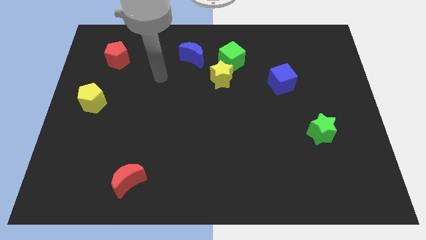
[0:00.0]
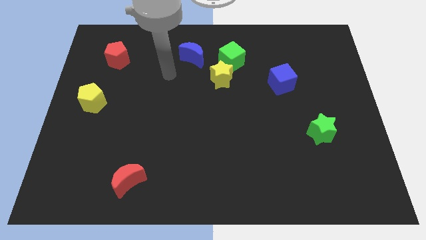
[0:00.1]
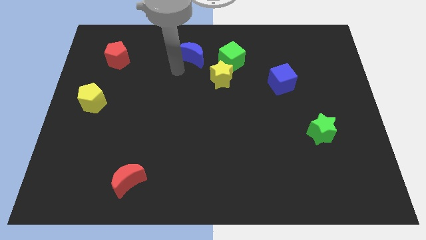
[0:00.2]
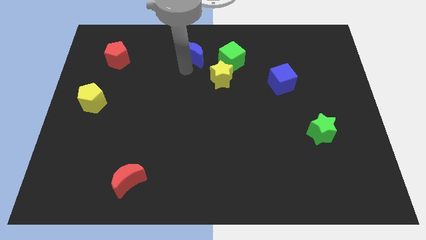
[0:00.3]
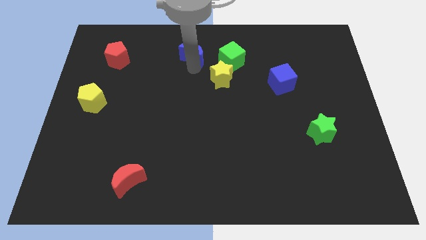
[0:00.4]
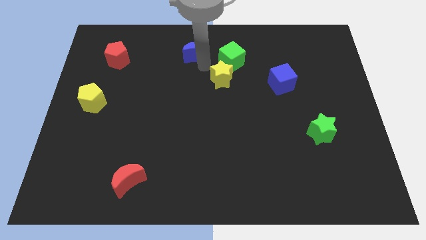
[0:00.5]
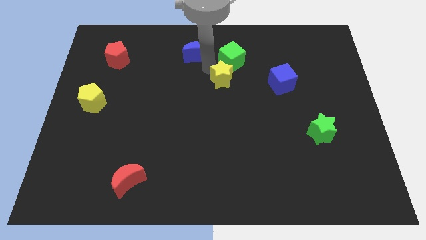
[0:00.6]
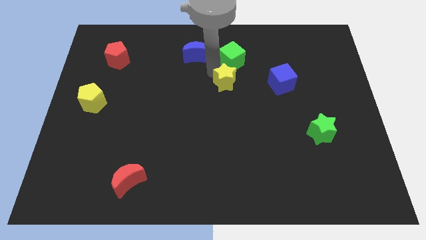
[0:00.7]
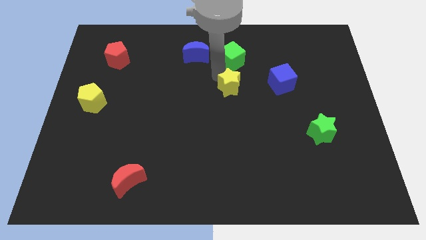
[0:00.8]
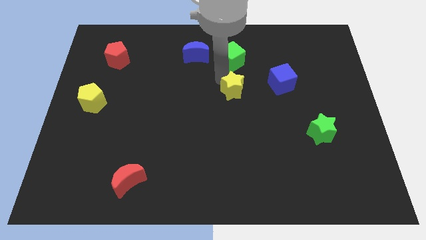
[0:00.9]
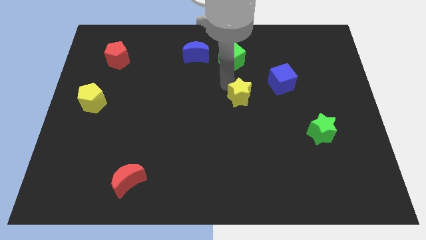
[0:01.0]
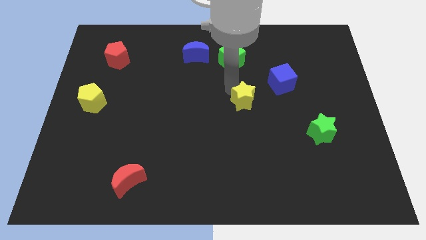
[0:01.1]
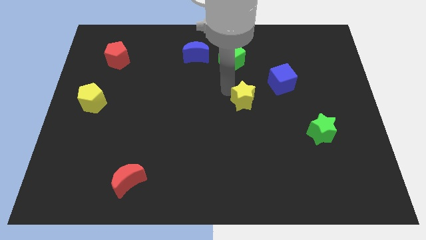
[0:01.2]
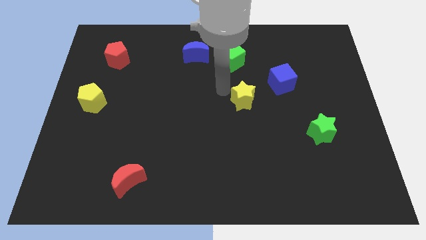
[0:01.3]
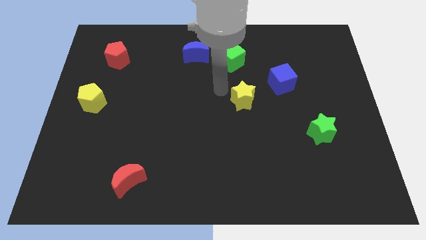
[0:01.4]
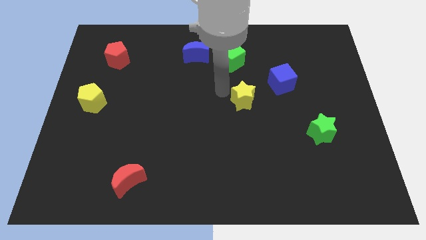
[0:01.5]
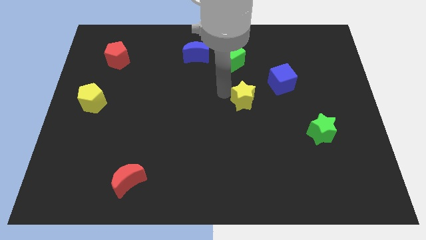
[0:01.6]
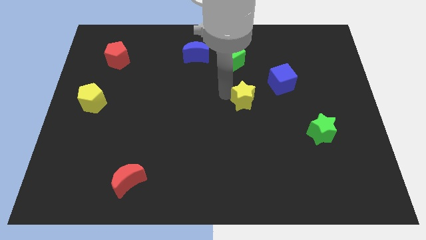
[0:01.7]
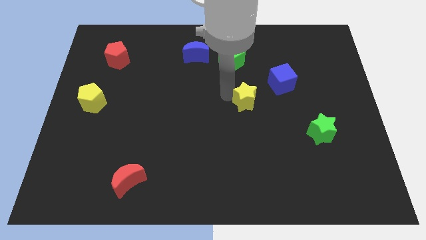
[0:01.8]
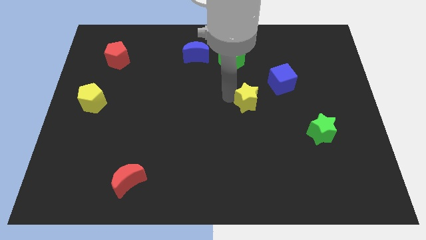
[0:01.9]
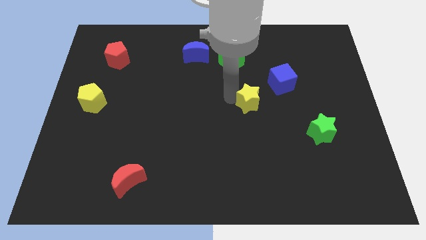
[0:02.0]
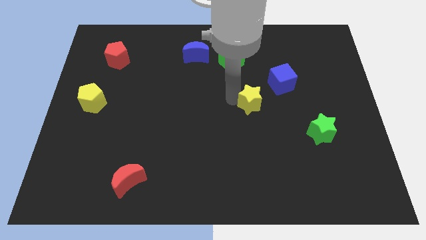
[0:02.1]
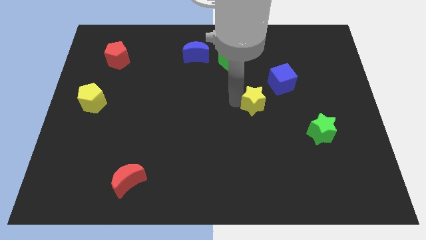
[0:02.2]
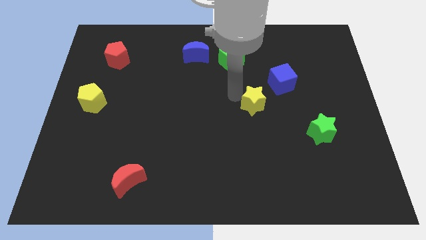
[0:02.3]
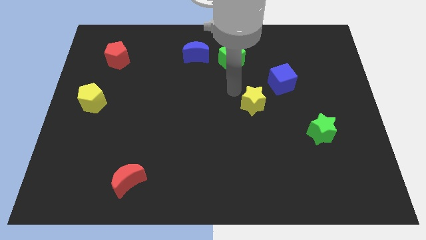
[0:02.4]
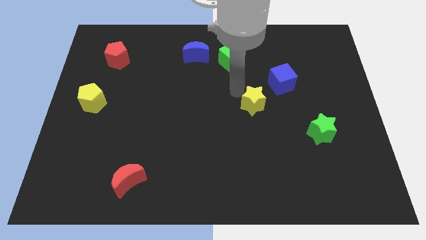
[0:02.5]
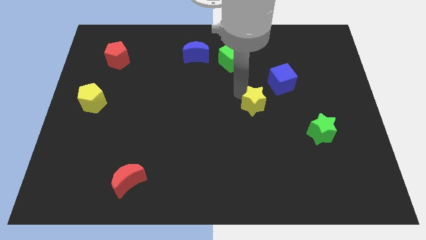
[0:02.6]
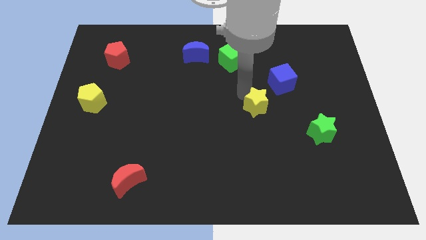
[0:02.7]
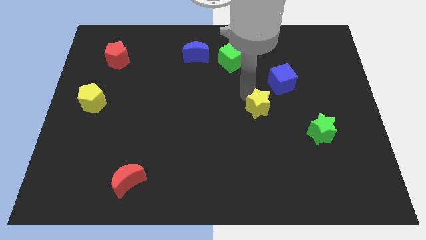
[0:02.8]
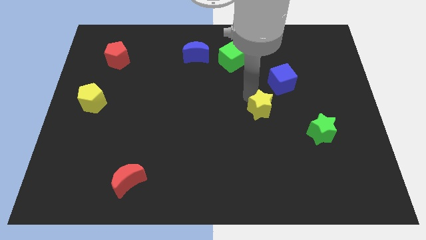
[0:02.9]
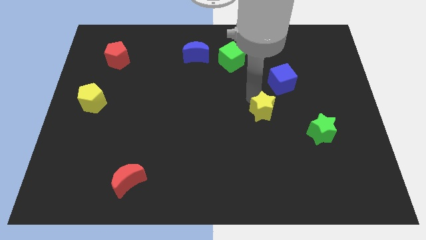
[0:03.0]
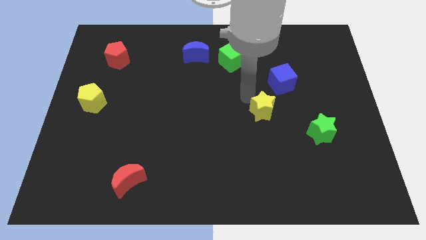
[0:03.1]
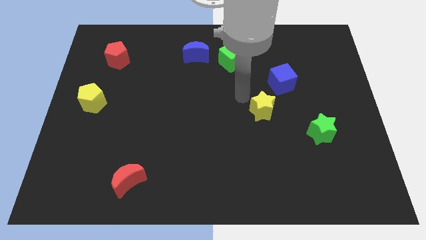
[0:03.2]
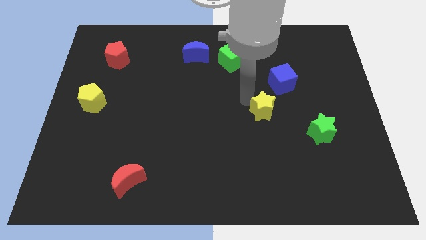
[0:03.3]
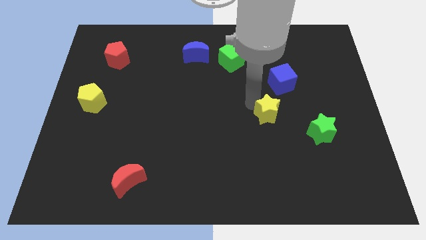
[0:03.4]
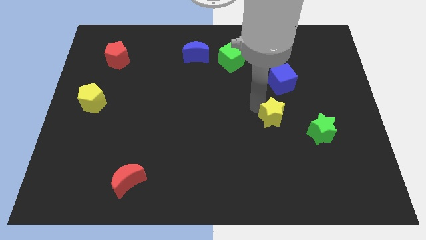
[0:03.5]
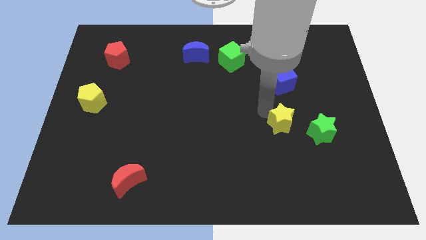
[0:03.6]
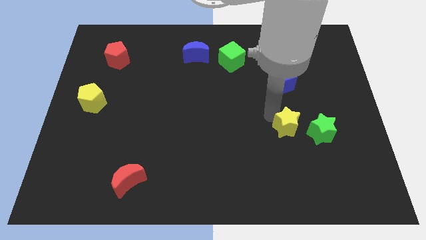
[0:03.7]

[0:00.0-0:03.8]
slide the yellow star down and then to the right

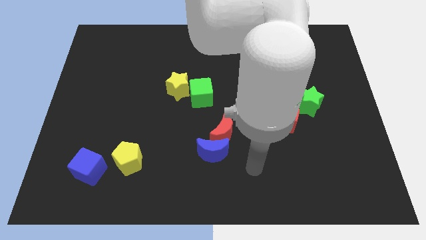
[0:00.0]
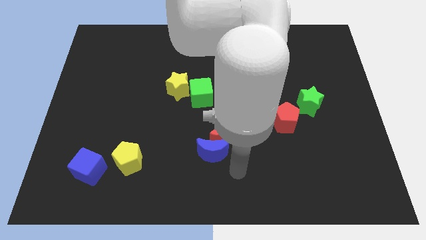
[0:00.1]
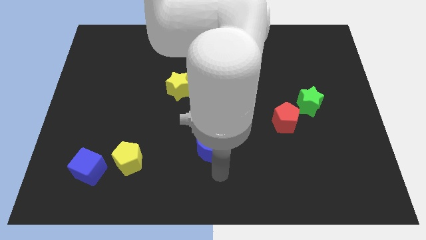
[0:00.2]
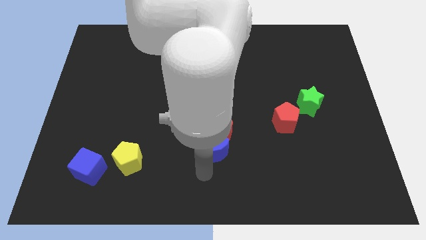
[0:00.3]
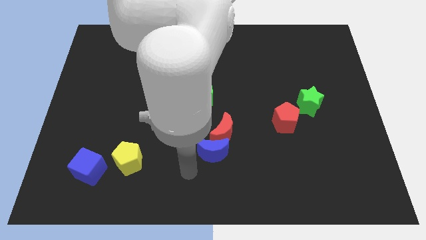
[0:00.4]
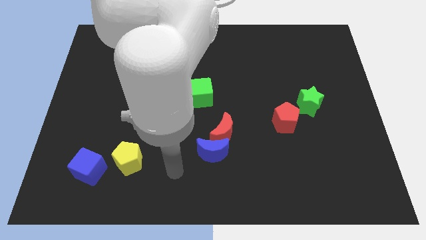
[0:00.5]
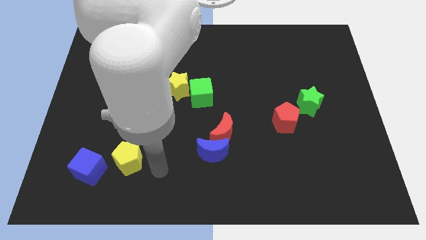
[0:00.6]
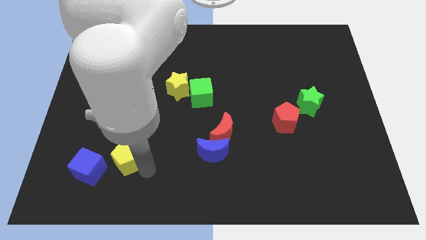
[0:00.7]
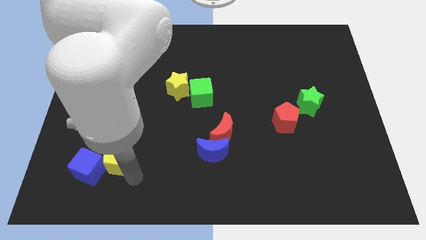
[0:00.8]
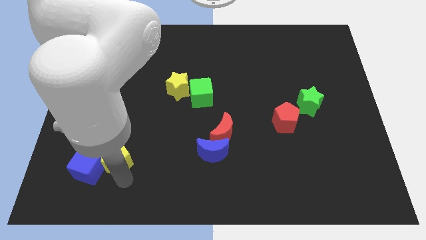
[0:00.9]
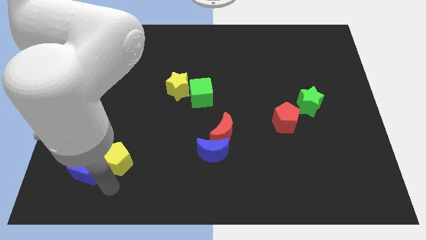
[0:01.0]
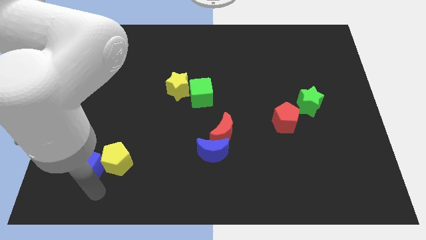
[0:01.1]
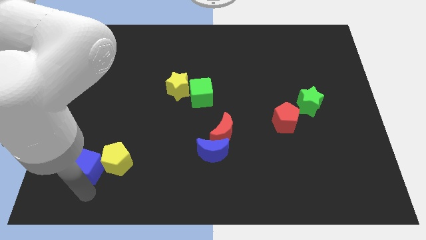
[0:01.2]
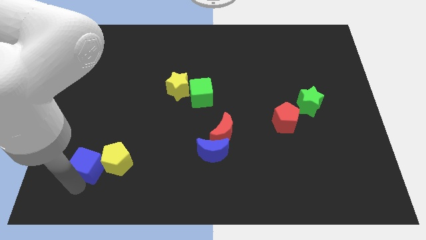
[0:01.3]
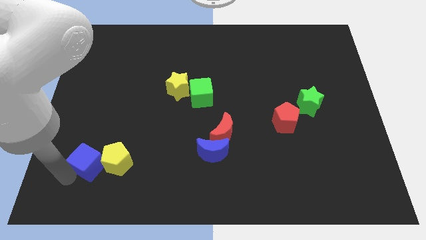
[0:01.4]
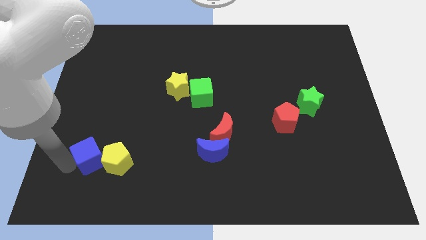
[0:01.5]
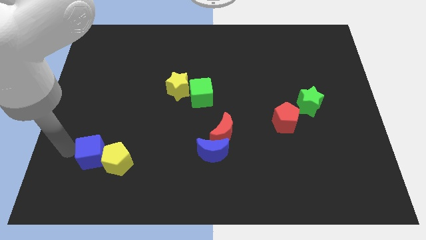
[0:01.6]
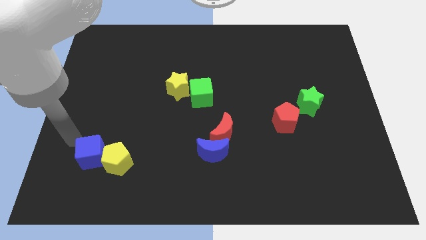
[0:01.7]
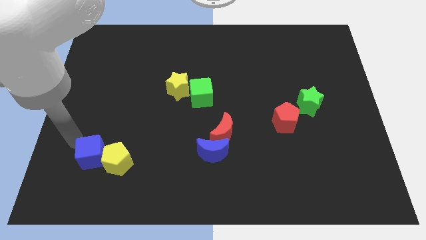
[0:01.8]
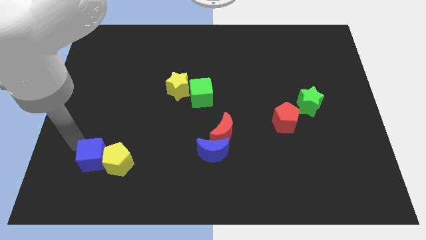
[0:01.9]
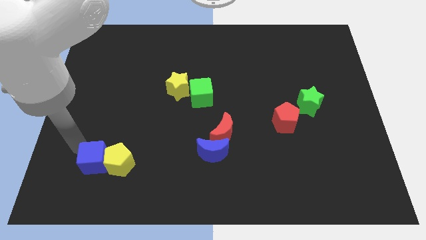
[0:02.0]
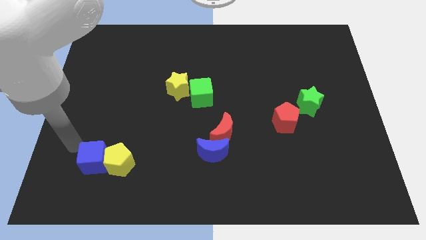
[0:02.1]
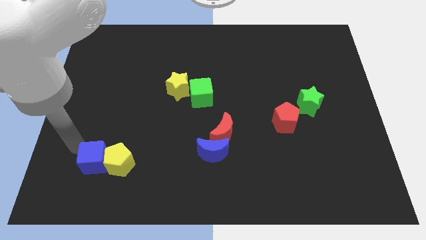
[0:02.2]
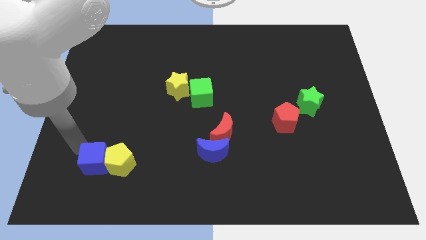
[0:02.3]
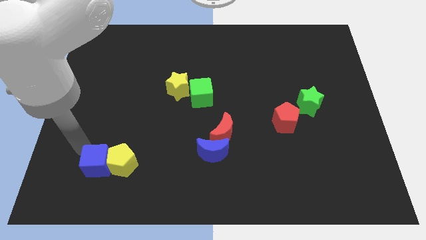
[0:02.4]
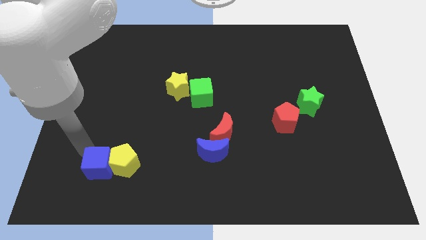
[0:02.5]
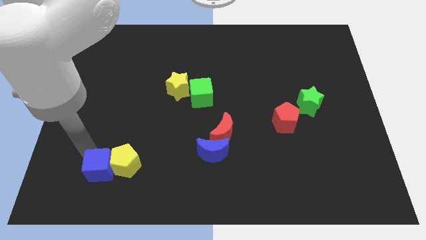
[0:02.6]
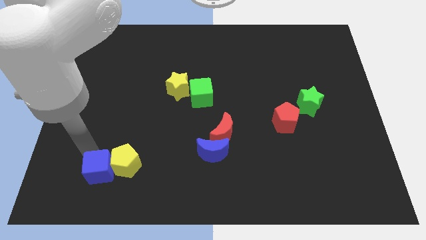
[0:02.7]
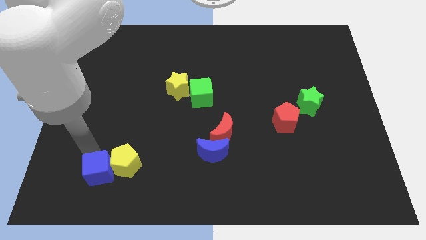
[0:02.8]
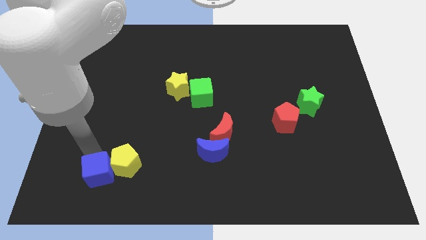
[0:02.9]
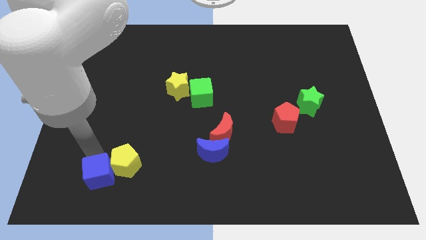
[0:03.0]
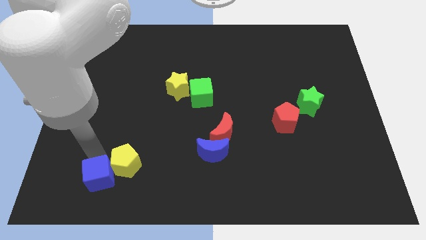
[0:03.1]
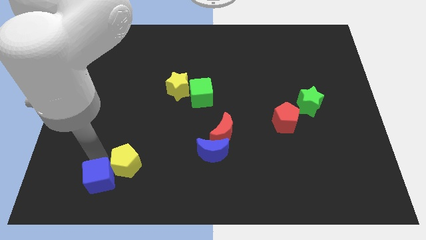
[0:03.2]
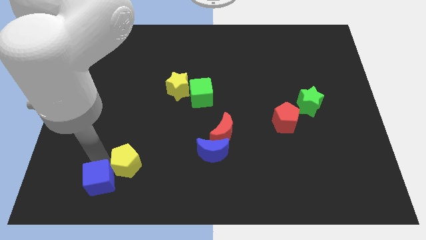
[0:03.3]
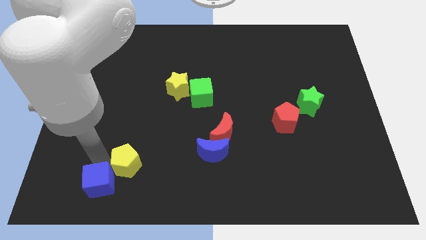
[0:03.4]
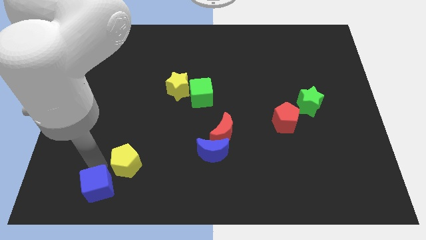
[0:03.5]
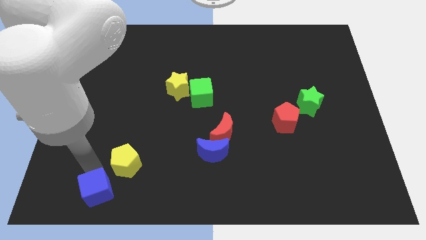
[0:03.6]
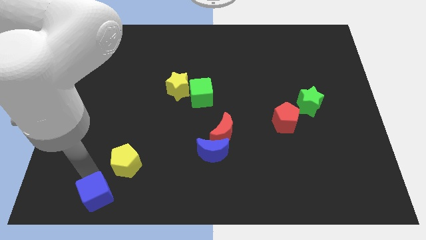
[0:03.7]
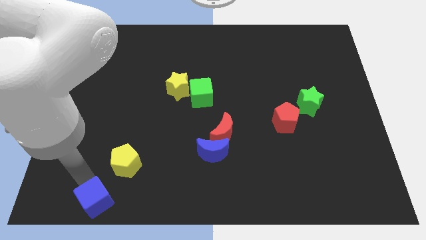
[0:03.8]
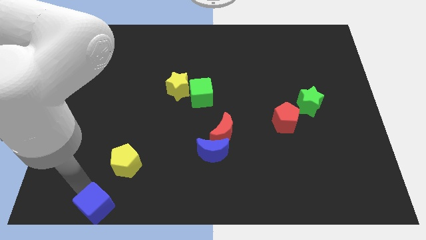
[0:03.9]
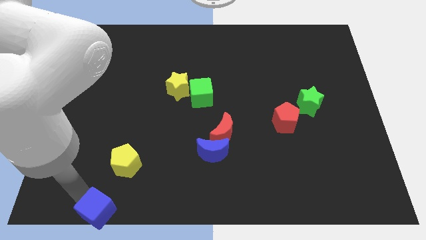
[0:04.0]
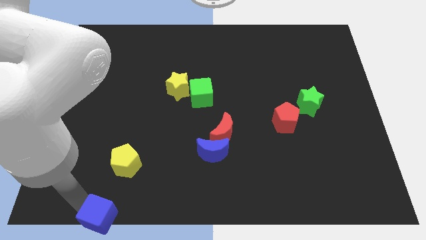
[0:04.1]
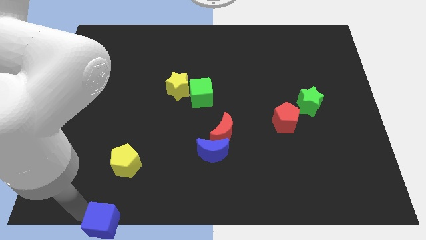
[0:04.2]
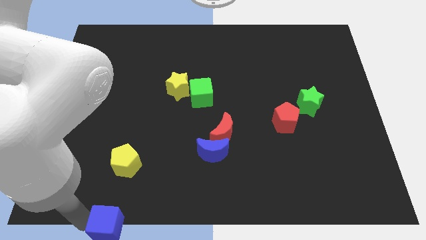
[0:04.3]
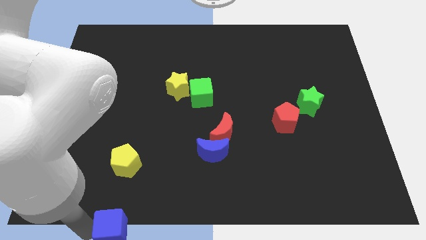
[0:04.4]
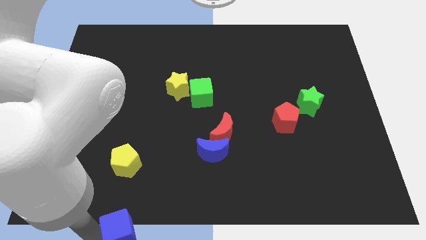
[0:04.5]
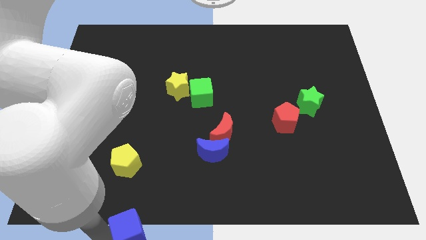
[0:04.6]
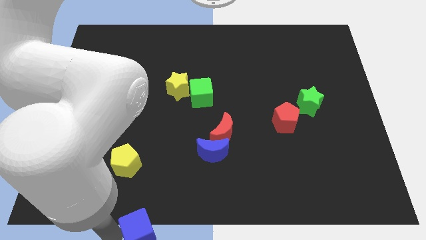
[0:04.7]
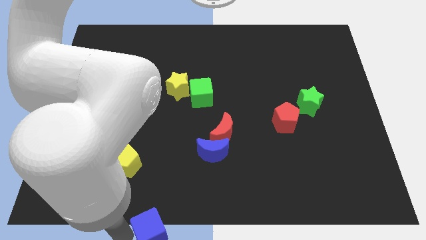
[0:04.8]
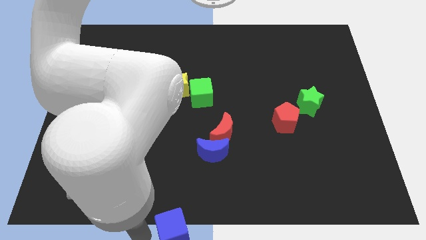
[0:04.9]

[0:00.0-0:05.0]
slide the blue cube right a bit
